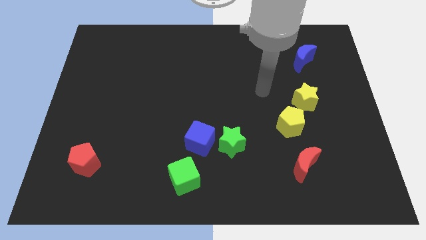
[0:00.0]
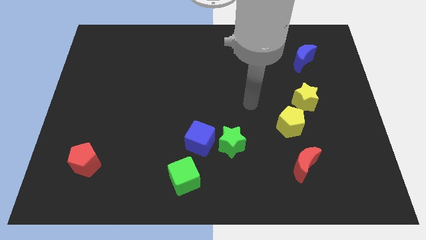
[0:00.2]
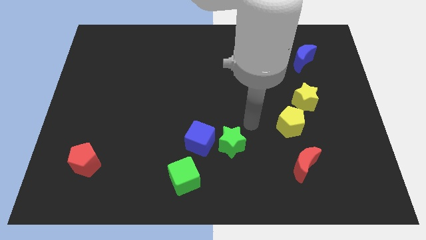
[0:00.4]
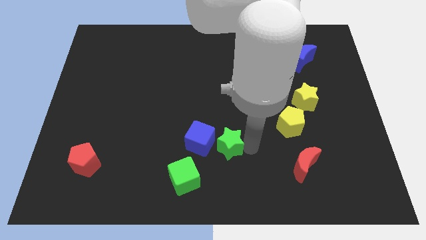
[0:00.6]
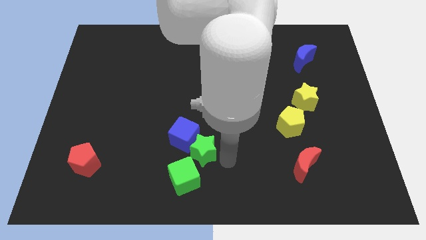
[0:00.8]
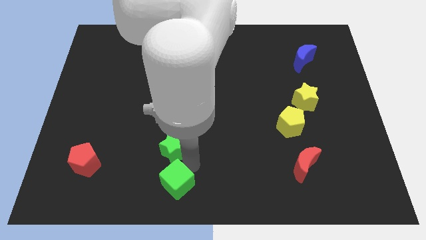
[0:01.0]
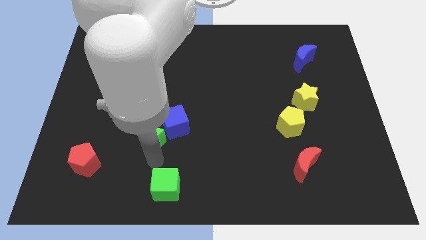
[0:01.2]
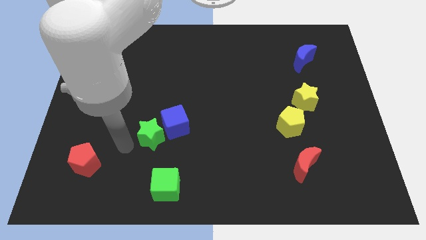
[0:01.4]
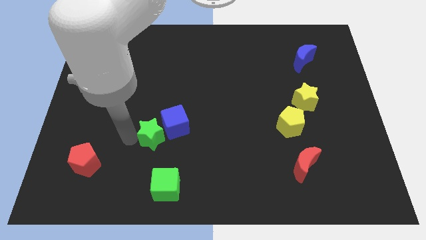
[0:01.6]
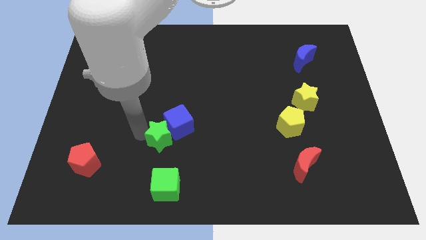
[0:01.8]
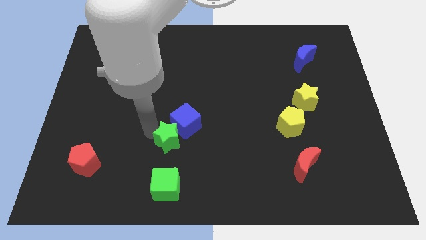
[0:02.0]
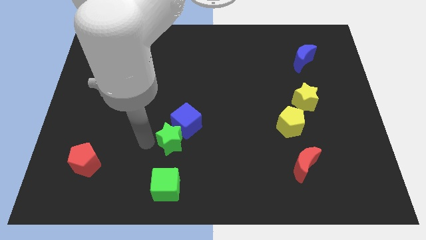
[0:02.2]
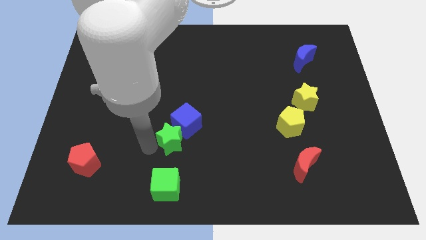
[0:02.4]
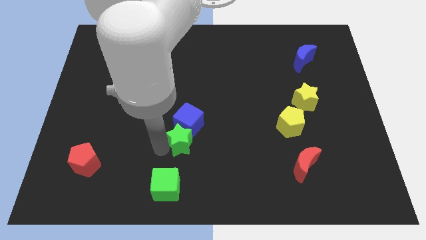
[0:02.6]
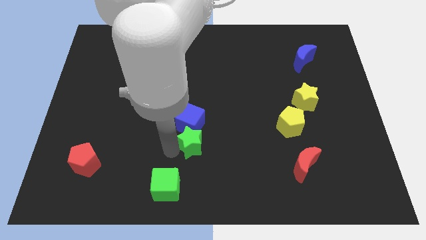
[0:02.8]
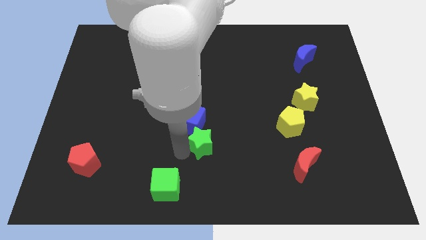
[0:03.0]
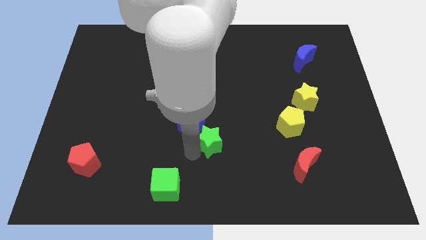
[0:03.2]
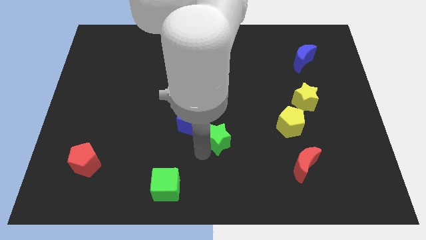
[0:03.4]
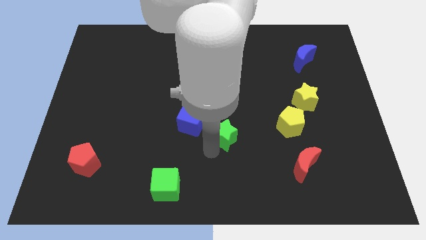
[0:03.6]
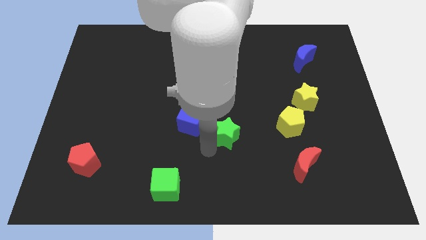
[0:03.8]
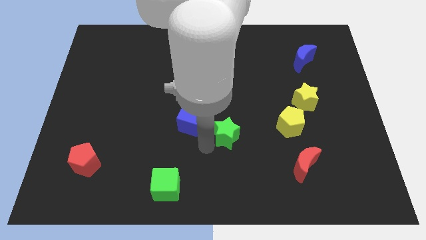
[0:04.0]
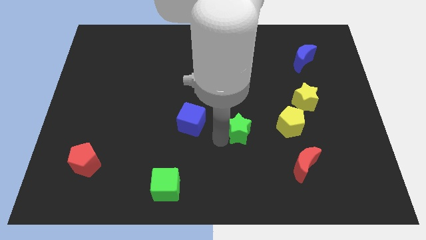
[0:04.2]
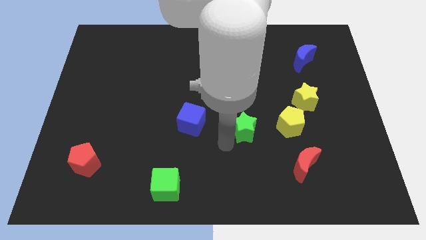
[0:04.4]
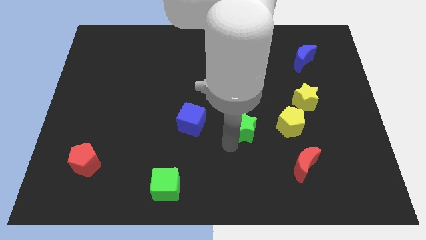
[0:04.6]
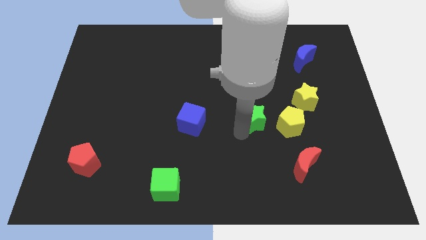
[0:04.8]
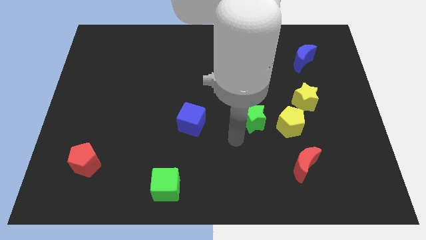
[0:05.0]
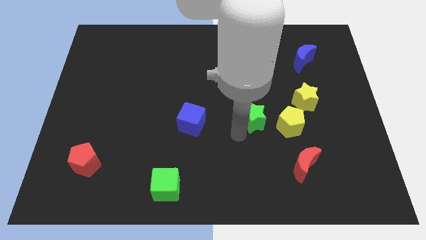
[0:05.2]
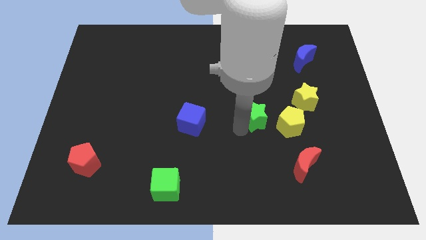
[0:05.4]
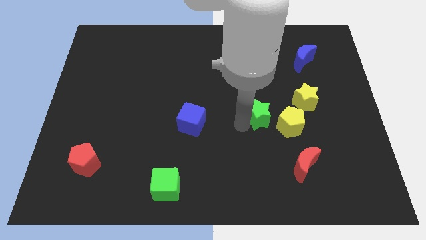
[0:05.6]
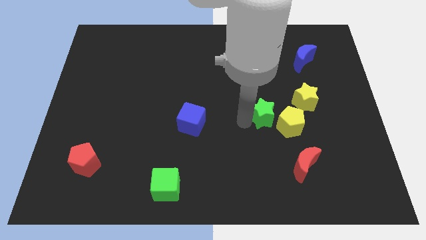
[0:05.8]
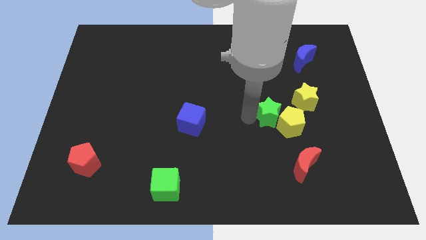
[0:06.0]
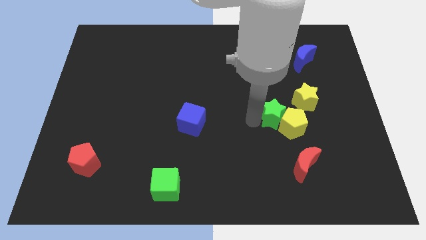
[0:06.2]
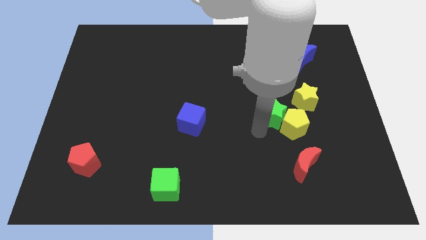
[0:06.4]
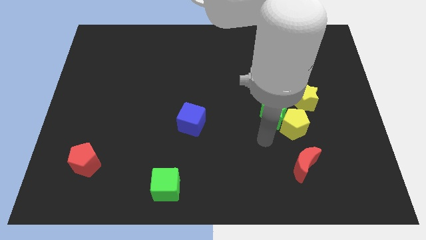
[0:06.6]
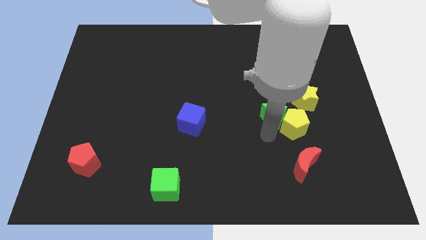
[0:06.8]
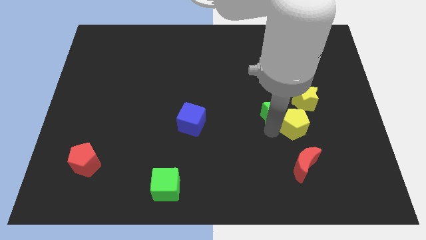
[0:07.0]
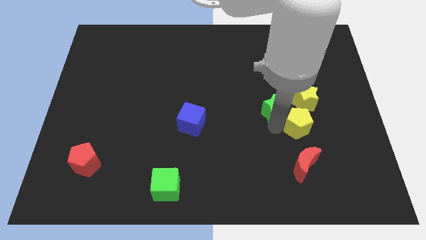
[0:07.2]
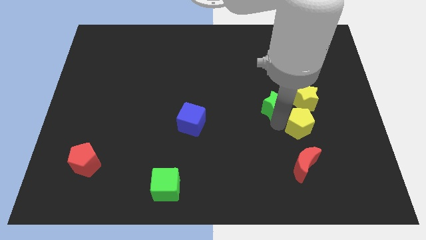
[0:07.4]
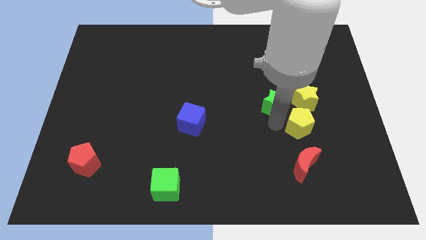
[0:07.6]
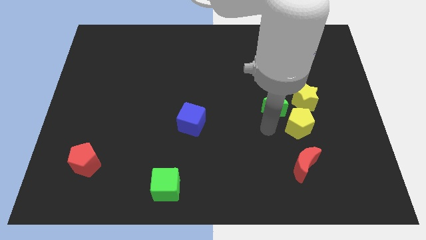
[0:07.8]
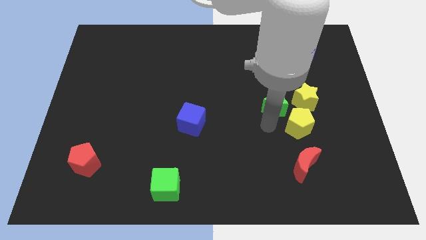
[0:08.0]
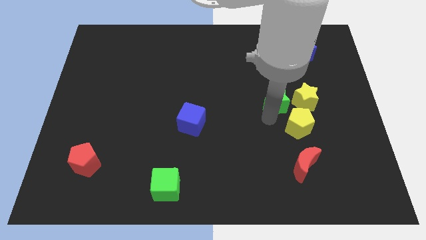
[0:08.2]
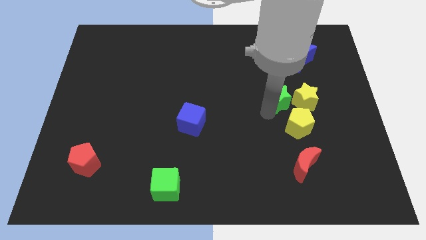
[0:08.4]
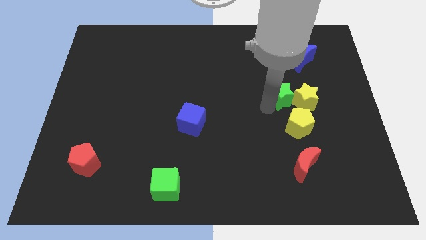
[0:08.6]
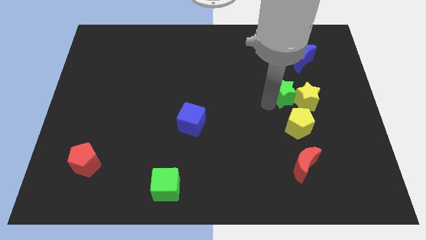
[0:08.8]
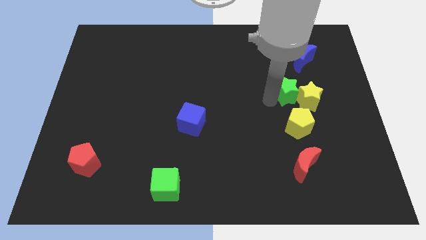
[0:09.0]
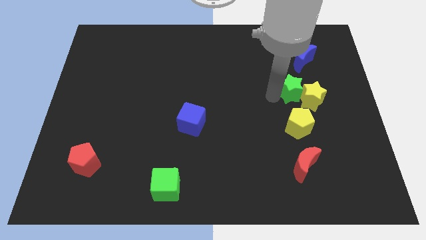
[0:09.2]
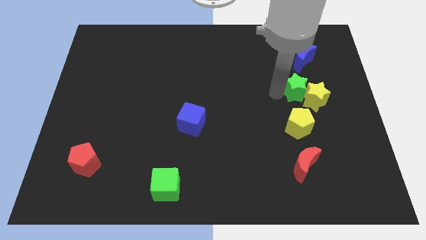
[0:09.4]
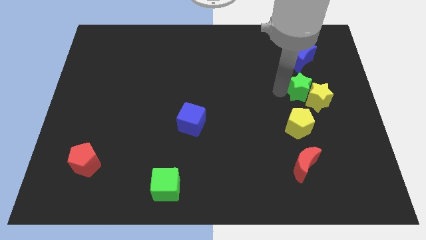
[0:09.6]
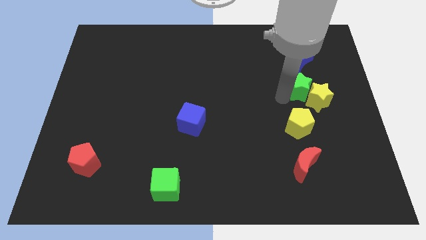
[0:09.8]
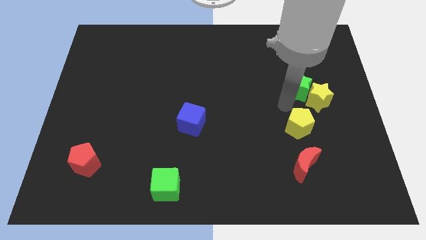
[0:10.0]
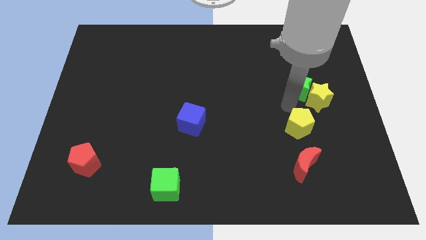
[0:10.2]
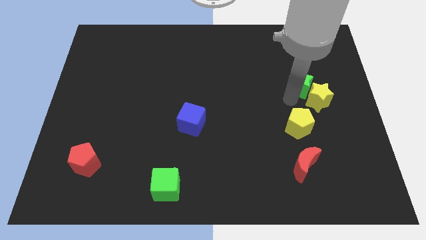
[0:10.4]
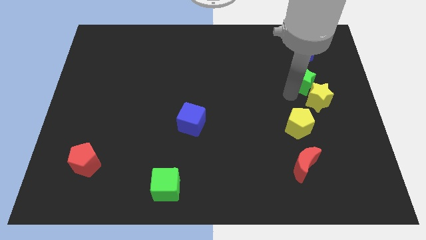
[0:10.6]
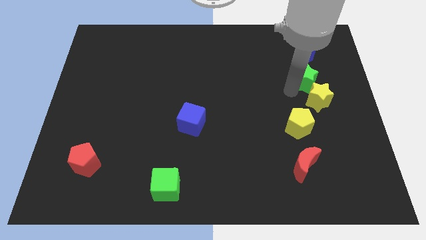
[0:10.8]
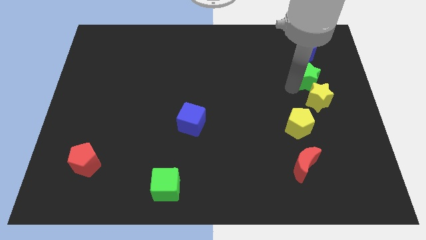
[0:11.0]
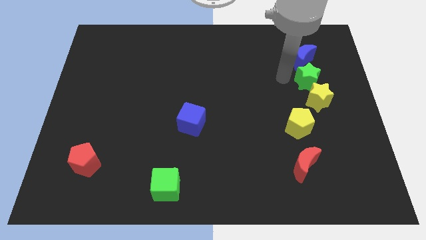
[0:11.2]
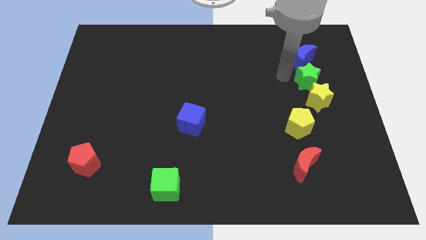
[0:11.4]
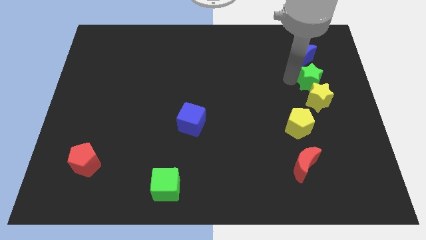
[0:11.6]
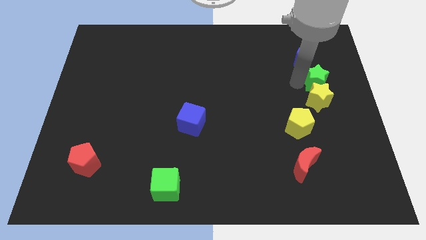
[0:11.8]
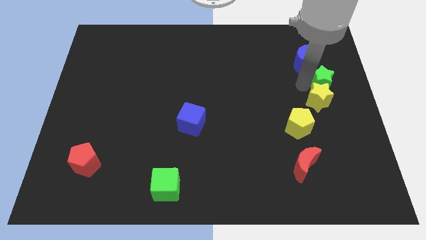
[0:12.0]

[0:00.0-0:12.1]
put the green star to the center right
